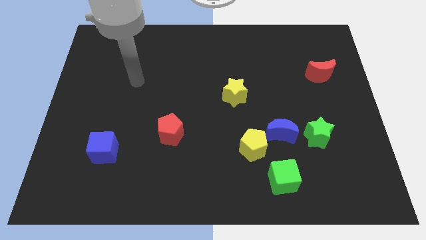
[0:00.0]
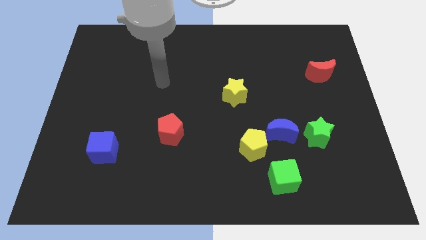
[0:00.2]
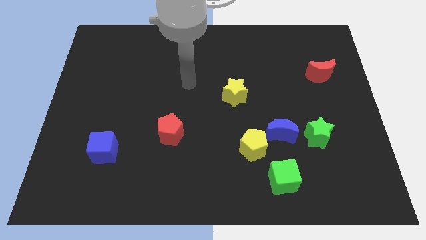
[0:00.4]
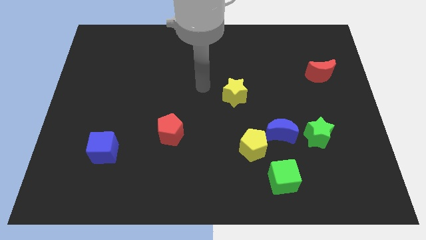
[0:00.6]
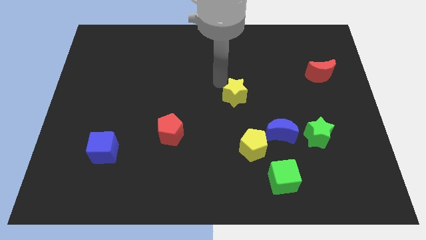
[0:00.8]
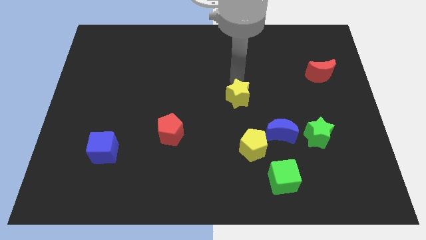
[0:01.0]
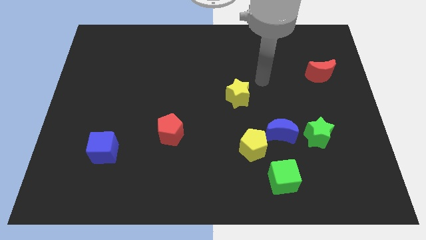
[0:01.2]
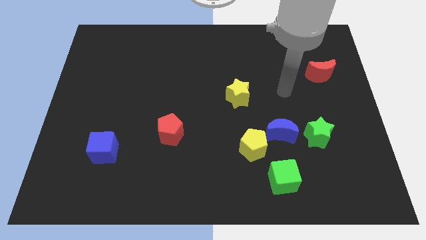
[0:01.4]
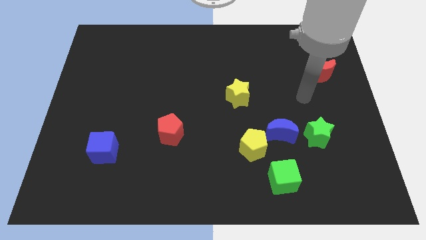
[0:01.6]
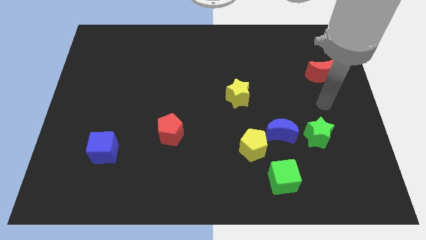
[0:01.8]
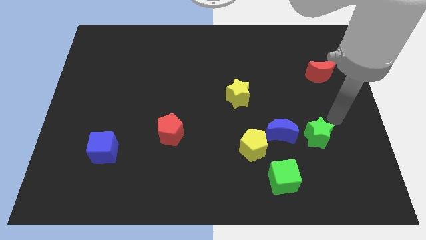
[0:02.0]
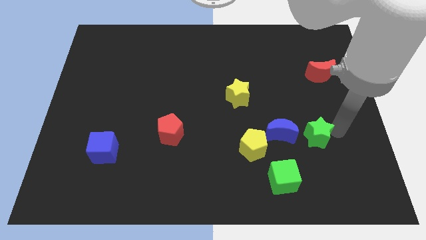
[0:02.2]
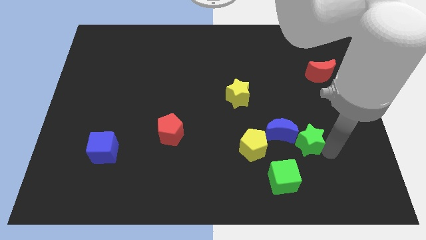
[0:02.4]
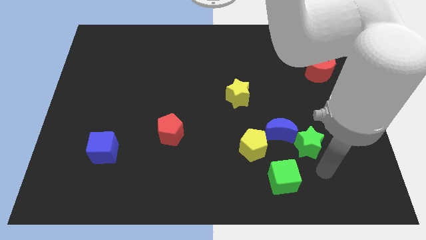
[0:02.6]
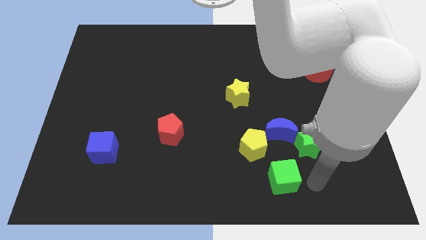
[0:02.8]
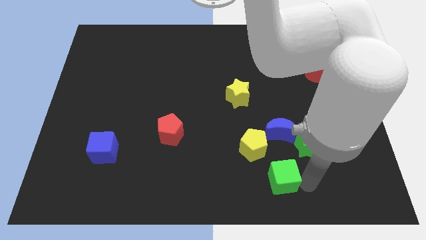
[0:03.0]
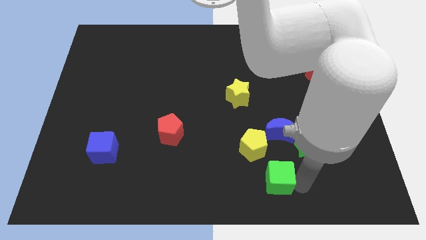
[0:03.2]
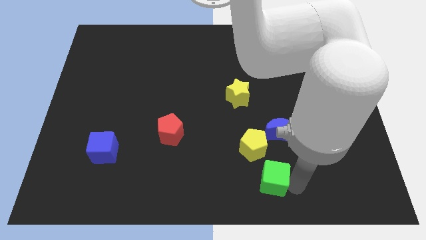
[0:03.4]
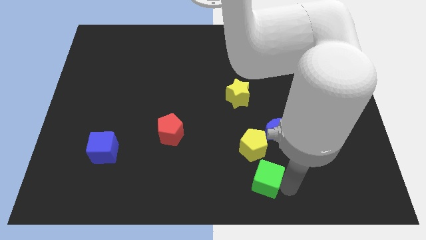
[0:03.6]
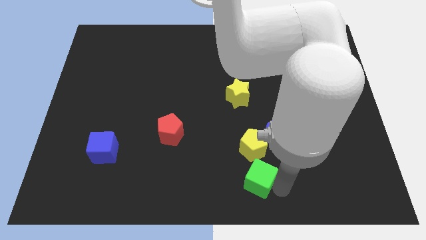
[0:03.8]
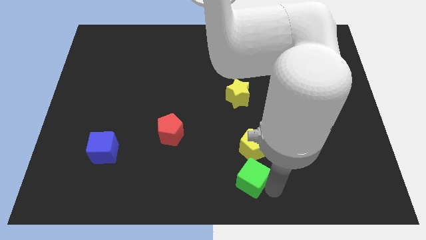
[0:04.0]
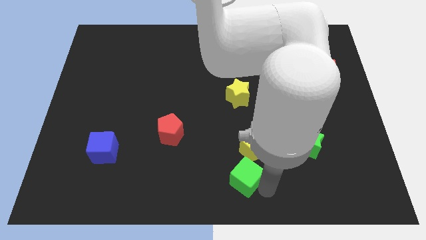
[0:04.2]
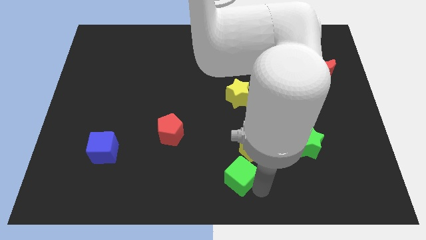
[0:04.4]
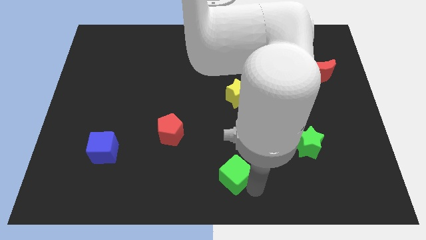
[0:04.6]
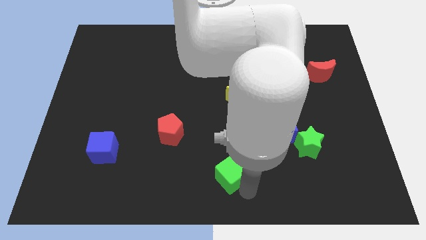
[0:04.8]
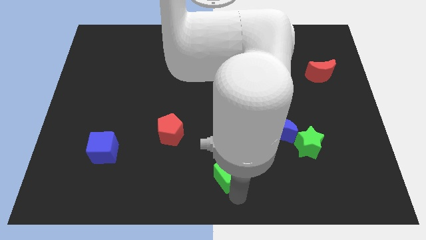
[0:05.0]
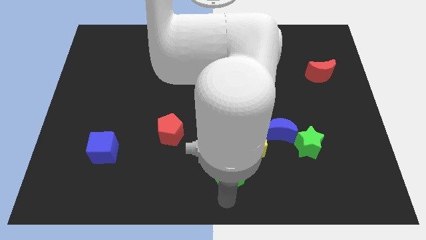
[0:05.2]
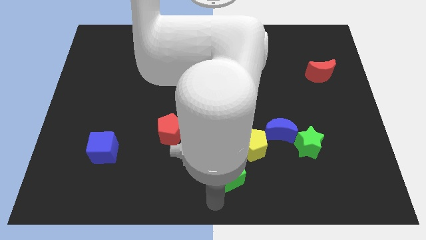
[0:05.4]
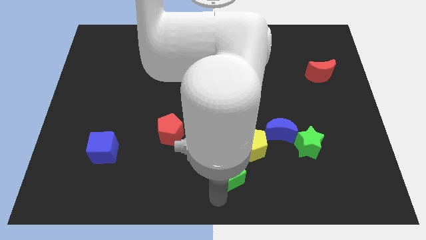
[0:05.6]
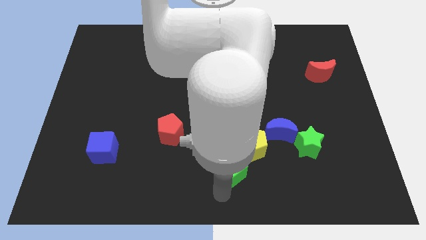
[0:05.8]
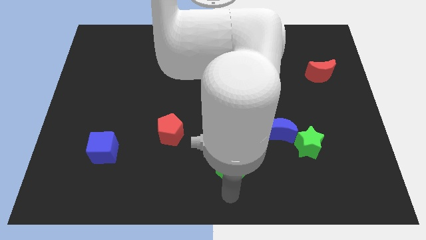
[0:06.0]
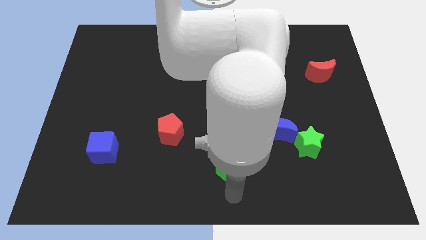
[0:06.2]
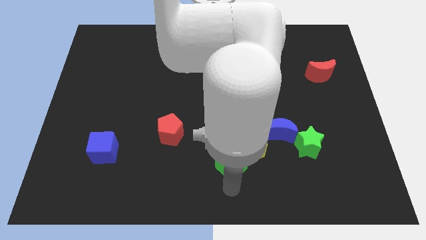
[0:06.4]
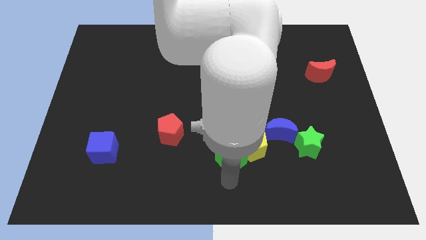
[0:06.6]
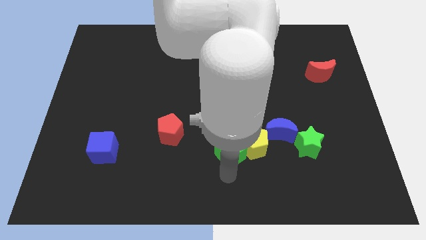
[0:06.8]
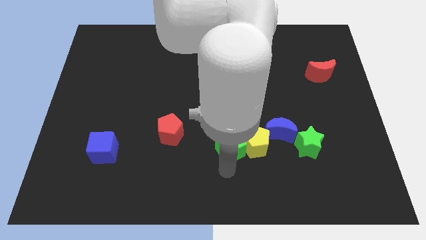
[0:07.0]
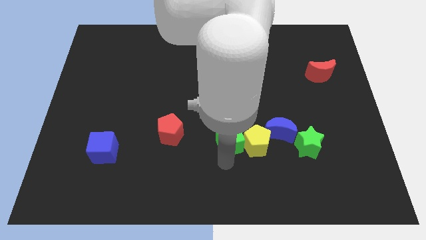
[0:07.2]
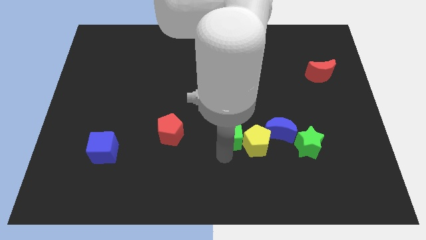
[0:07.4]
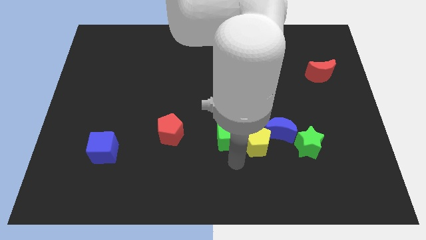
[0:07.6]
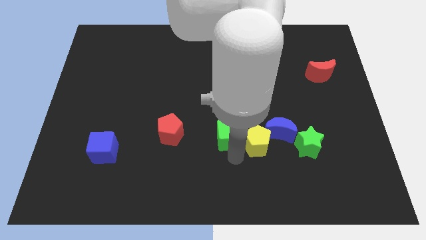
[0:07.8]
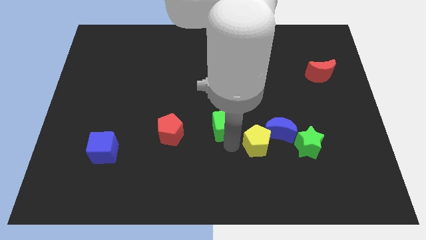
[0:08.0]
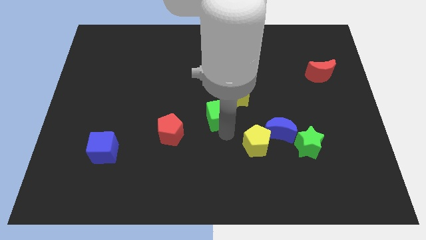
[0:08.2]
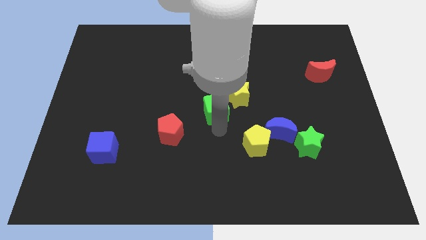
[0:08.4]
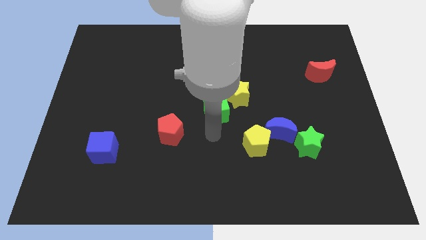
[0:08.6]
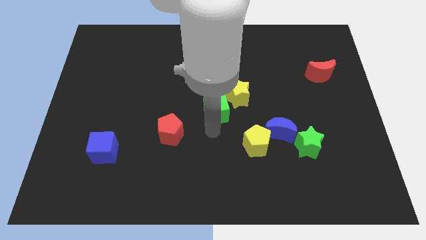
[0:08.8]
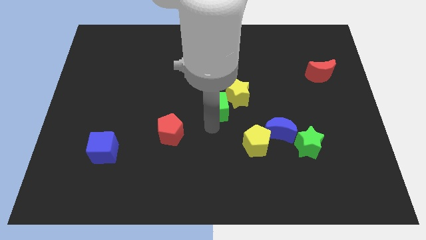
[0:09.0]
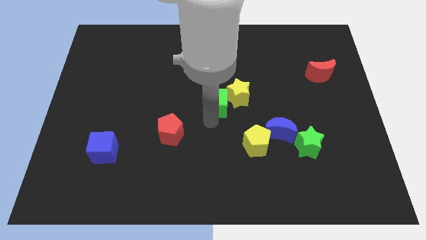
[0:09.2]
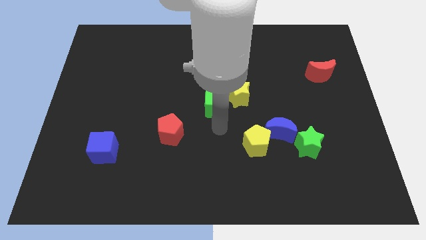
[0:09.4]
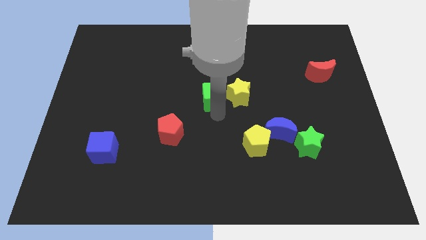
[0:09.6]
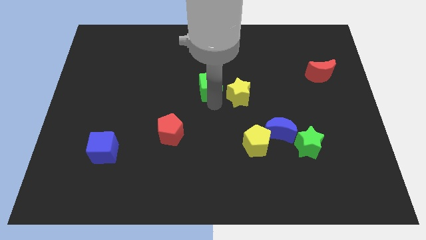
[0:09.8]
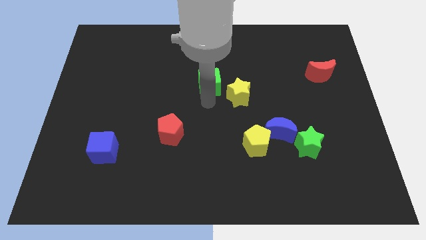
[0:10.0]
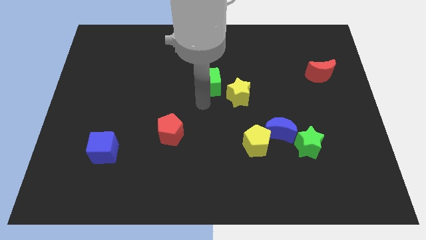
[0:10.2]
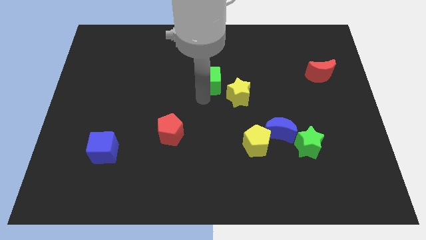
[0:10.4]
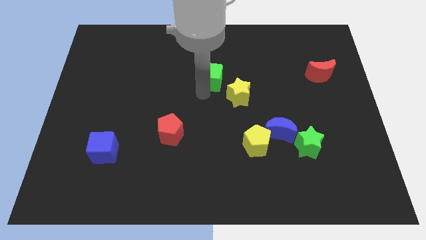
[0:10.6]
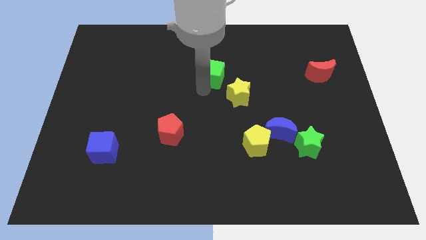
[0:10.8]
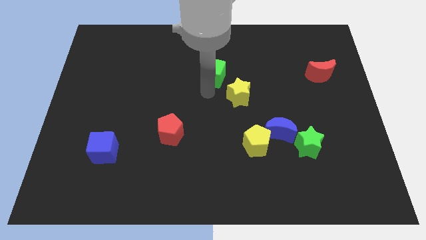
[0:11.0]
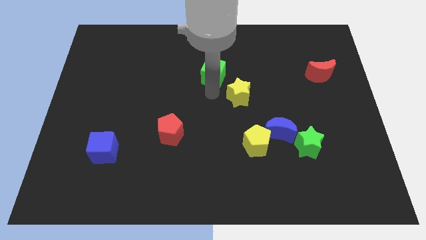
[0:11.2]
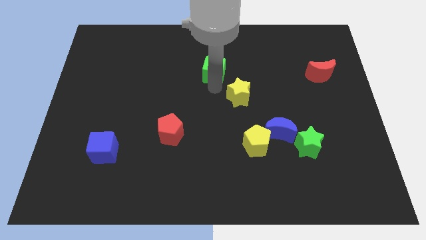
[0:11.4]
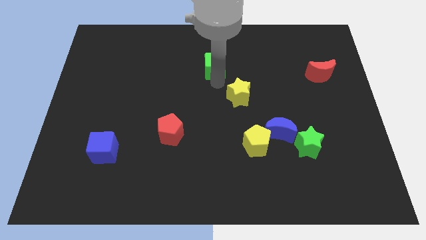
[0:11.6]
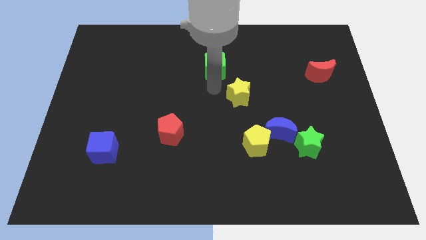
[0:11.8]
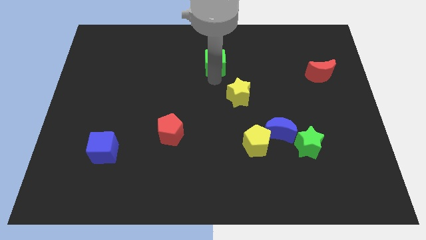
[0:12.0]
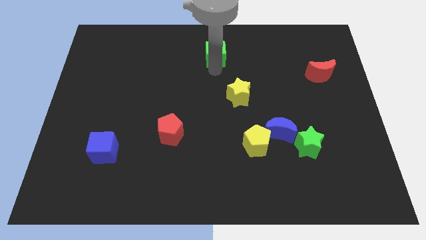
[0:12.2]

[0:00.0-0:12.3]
move the green cube to the top side
